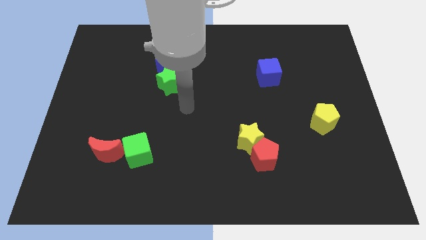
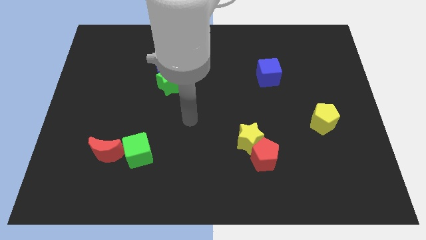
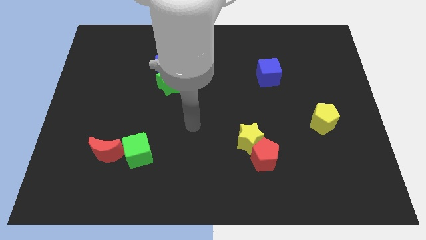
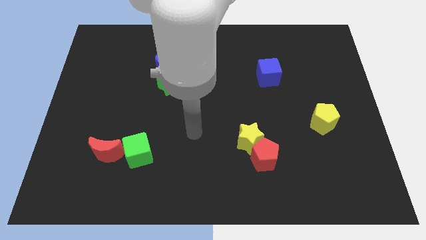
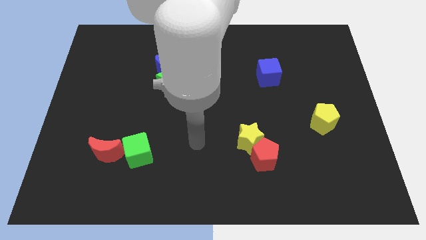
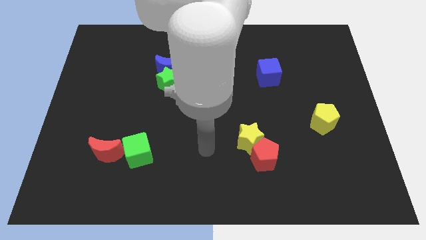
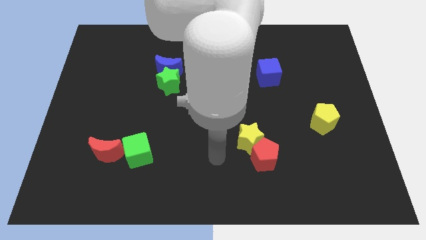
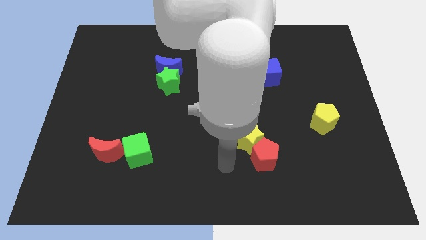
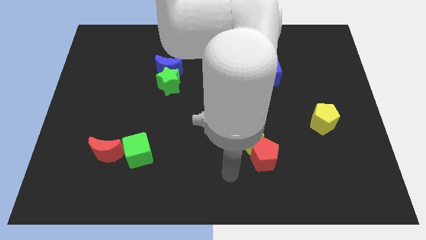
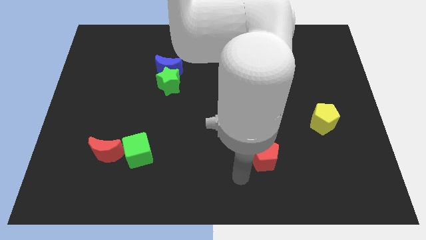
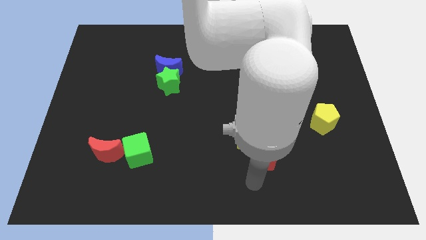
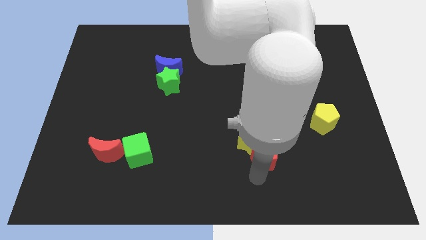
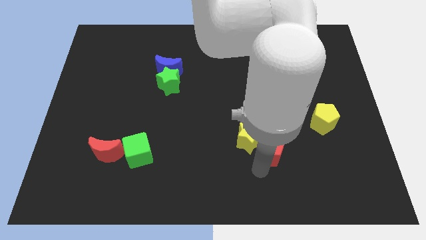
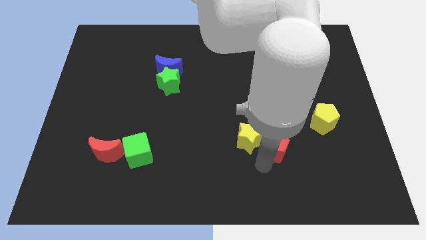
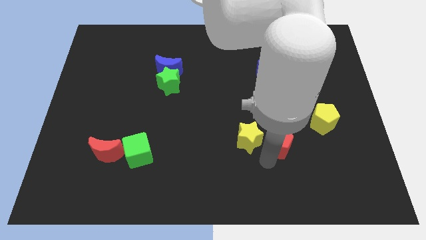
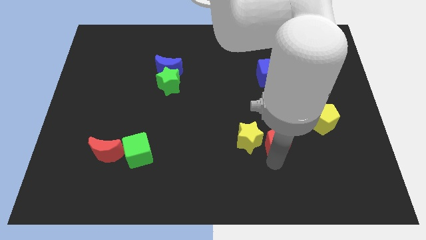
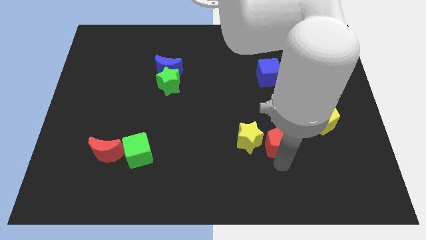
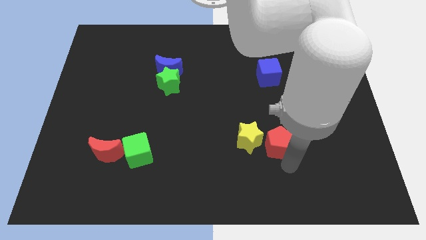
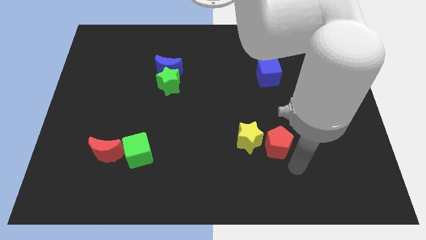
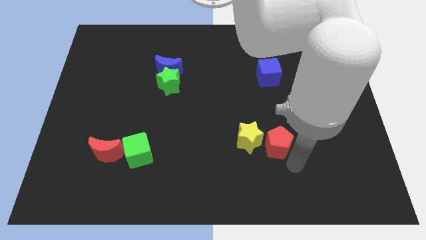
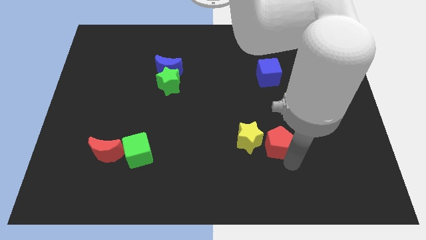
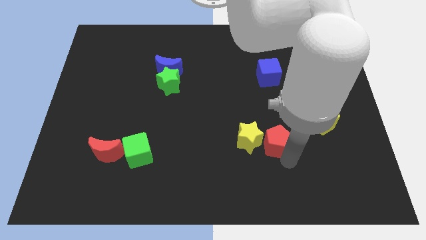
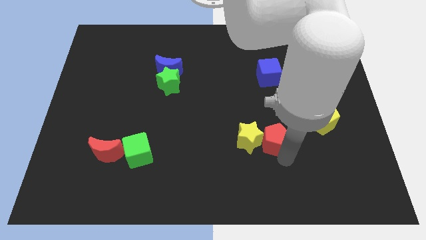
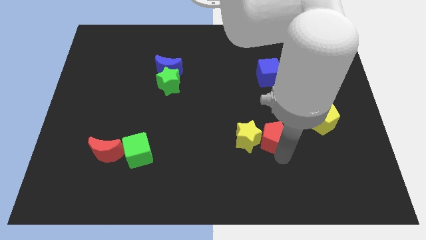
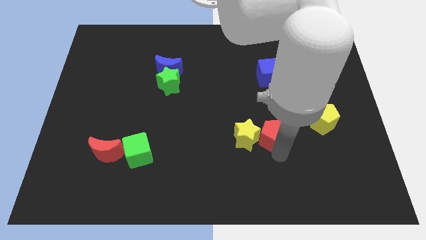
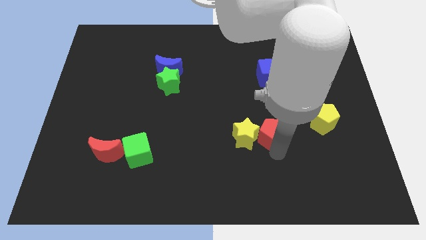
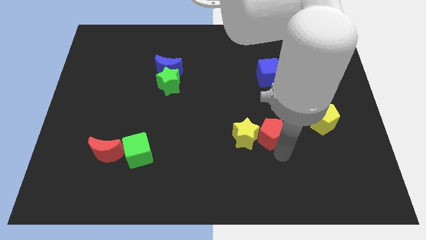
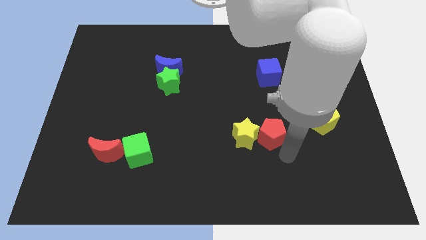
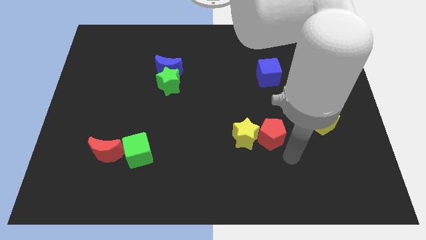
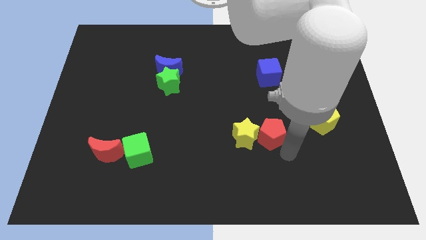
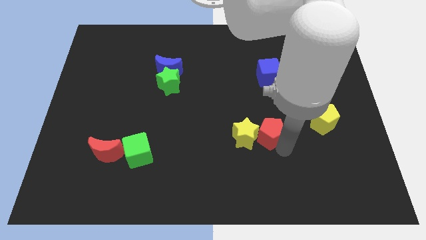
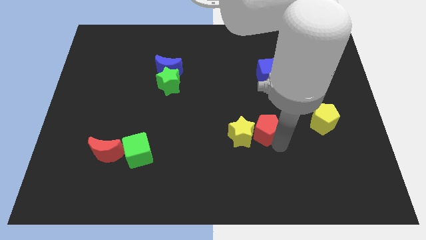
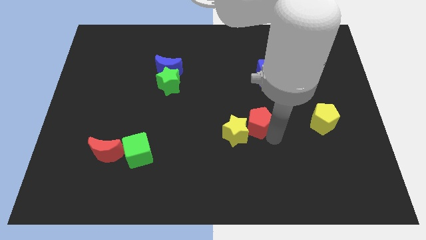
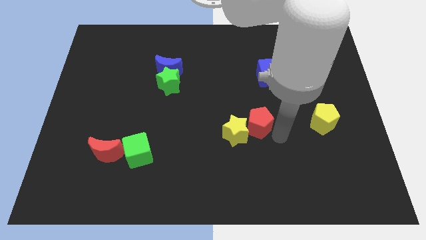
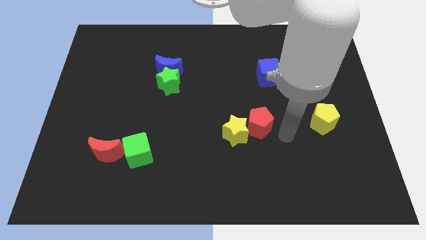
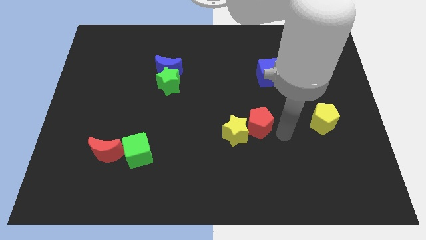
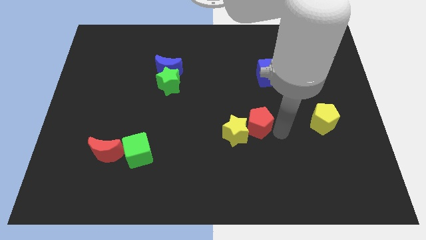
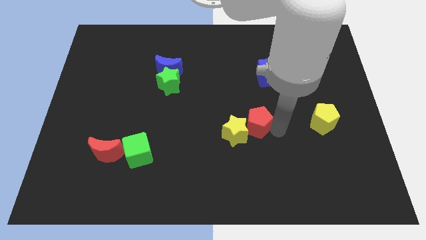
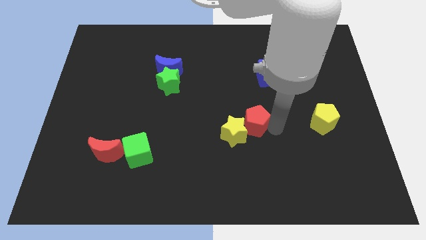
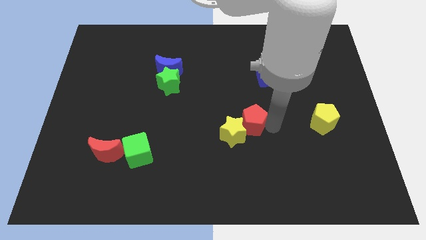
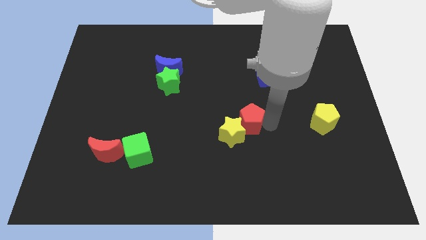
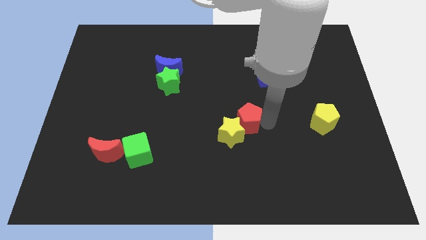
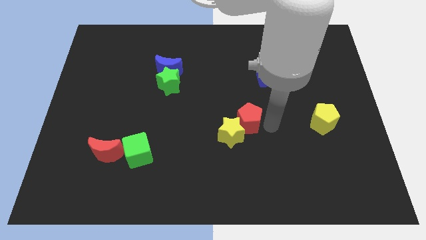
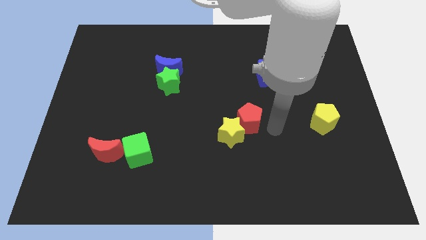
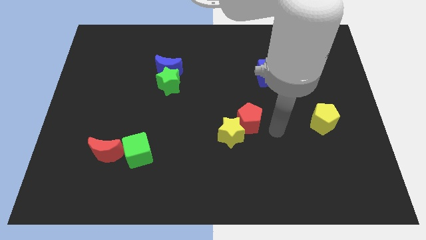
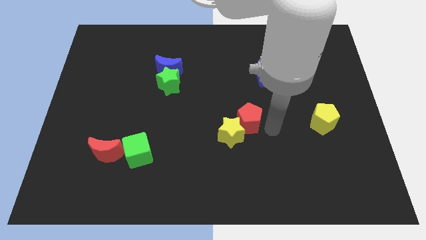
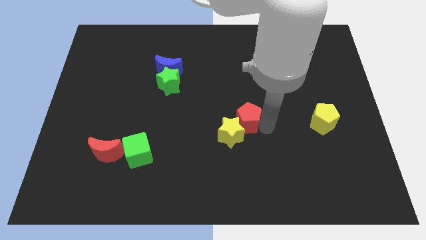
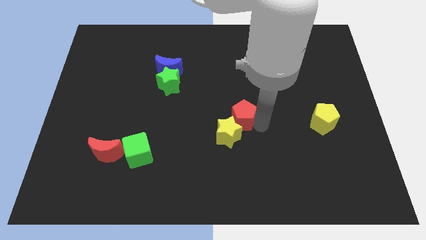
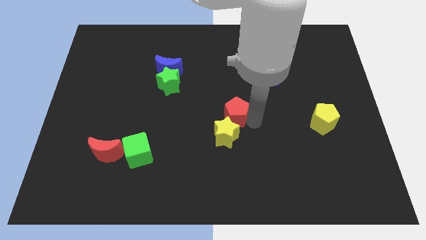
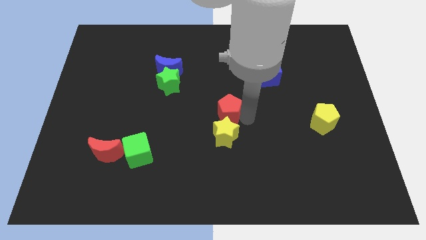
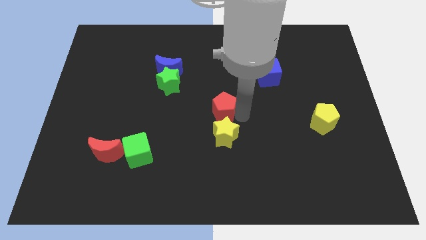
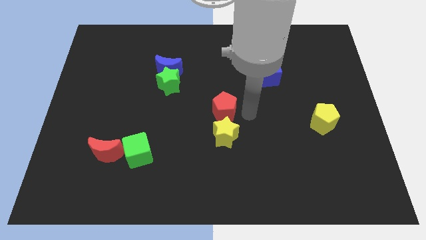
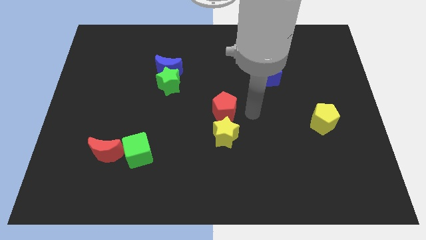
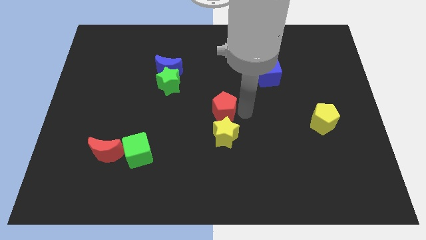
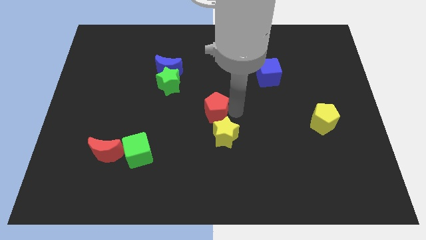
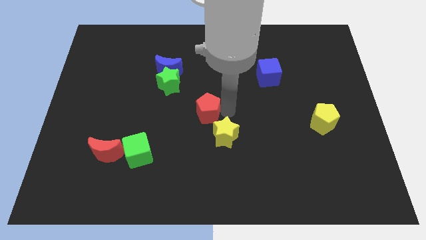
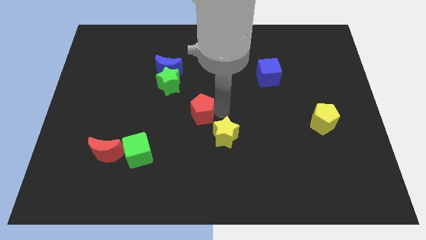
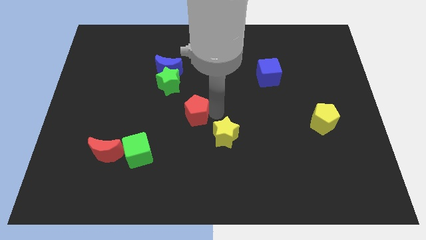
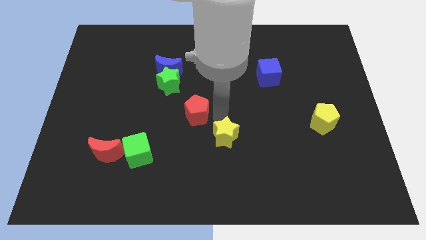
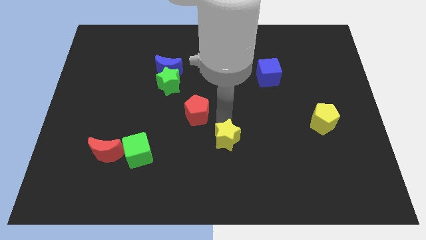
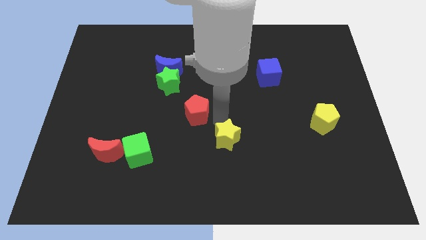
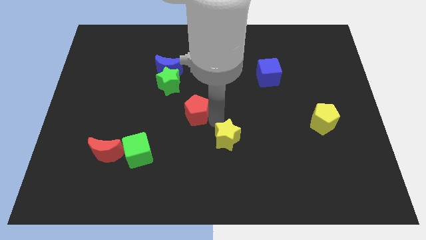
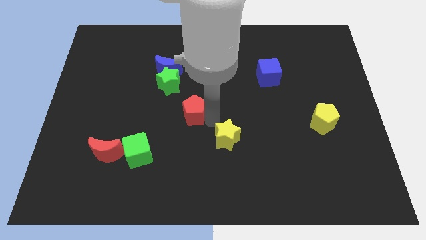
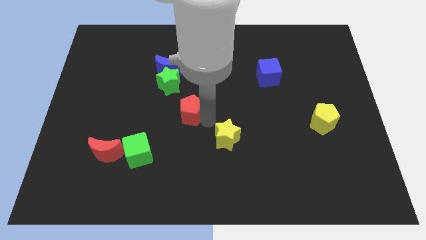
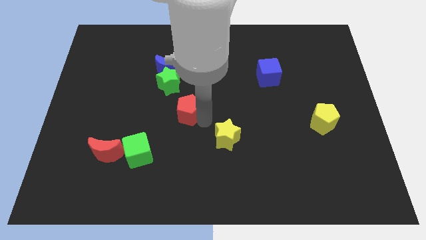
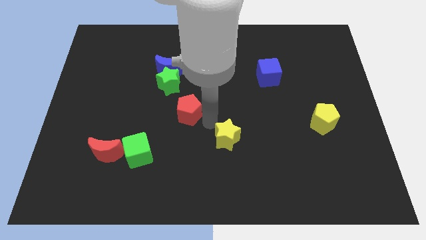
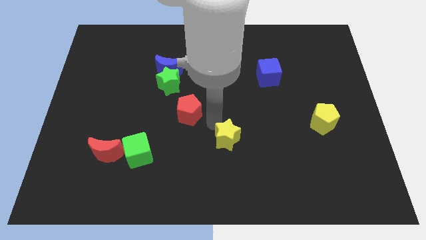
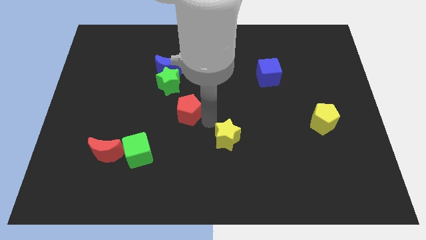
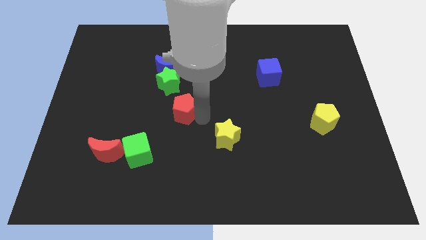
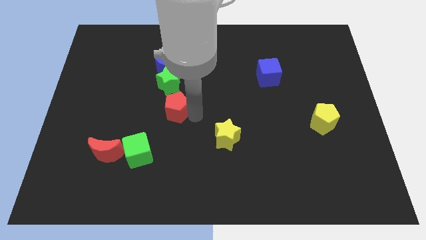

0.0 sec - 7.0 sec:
push the red pentagon below the blue moon
